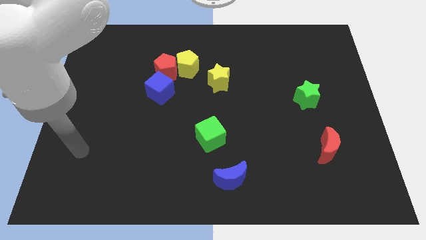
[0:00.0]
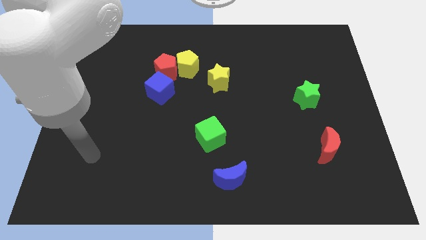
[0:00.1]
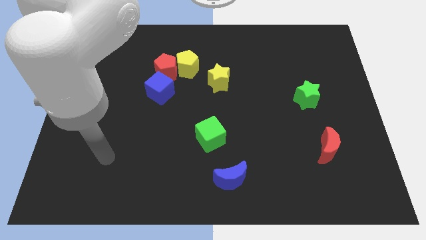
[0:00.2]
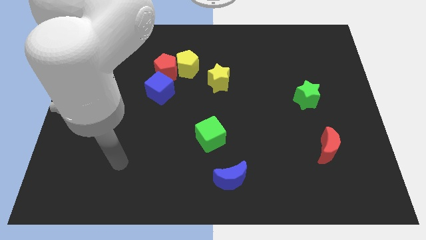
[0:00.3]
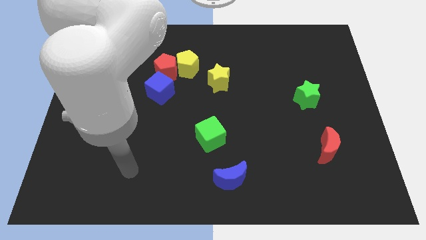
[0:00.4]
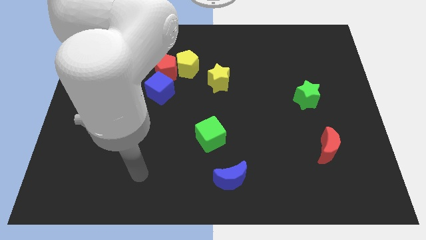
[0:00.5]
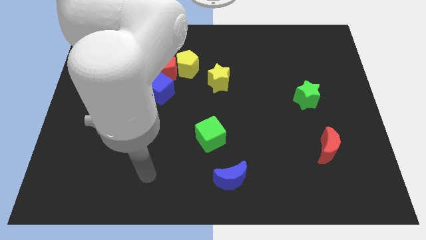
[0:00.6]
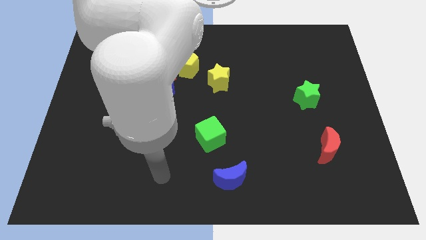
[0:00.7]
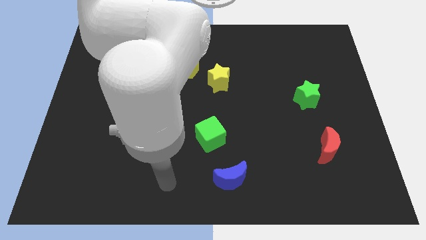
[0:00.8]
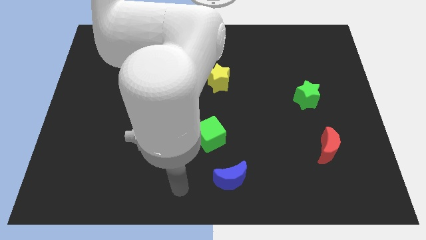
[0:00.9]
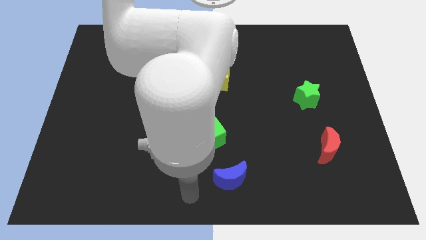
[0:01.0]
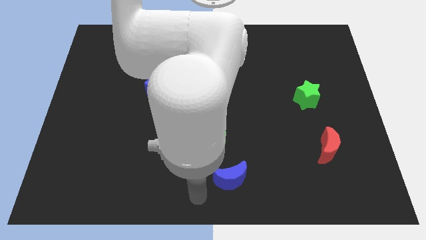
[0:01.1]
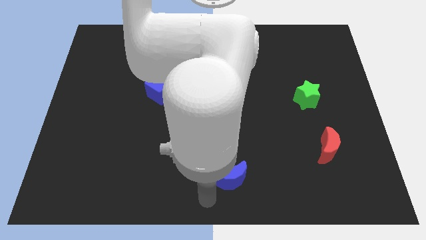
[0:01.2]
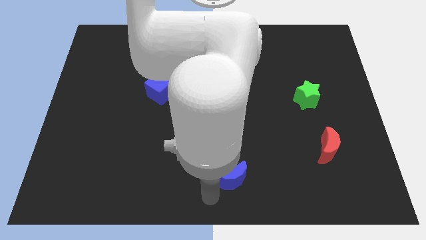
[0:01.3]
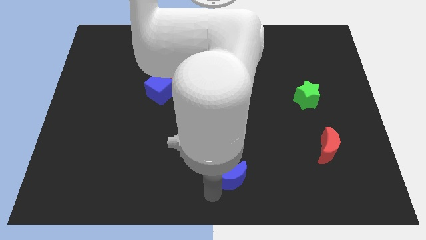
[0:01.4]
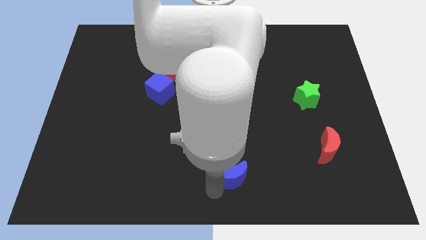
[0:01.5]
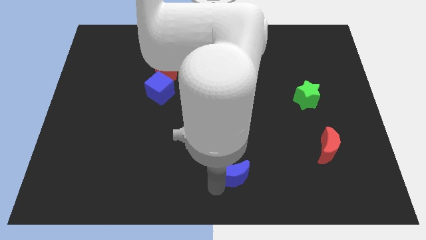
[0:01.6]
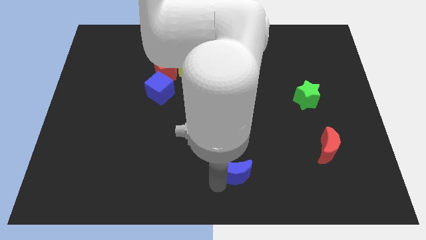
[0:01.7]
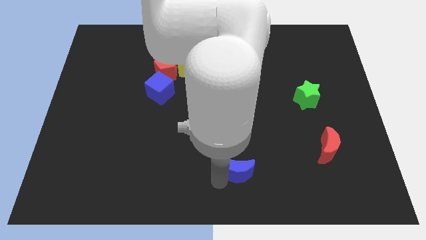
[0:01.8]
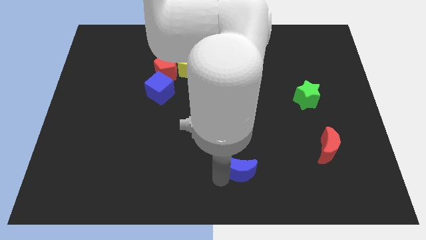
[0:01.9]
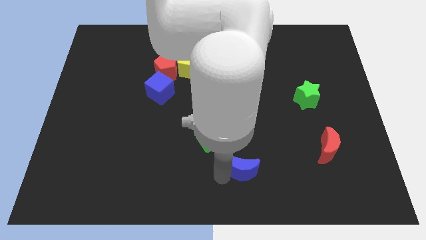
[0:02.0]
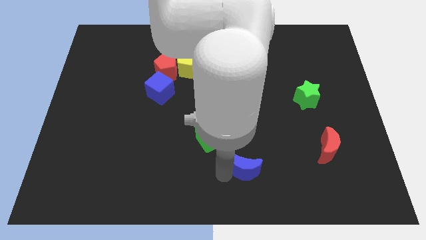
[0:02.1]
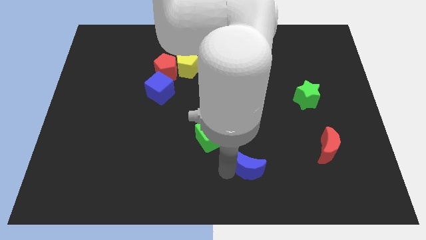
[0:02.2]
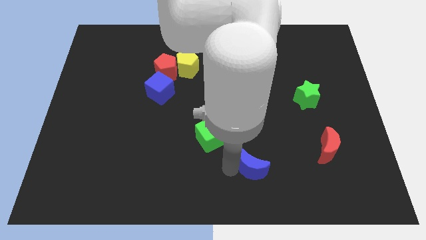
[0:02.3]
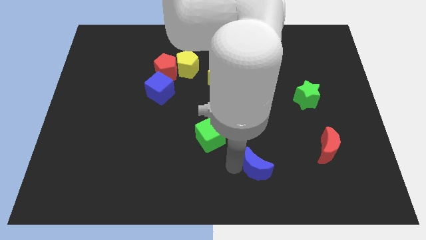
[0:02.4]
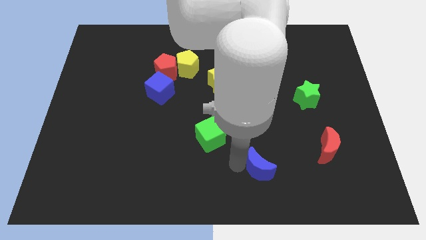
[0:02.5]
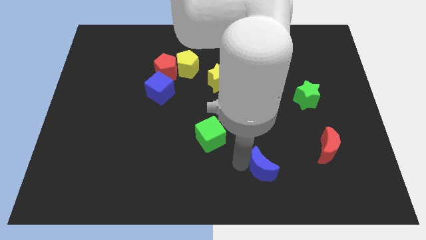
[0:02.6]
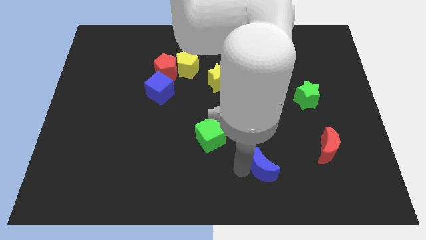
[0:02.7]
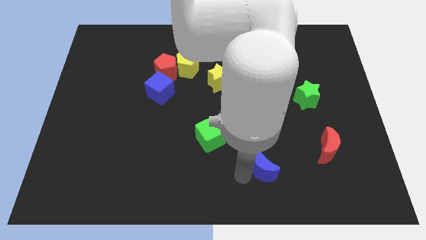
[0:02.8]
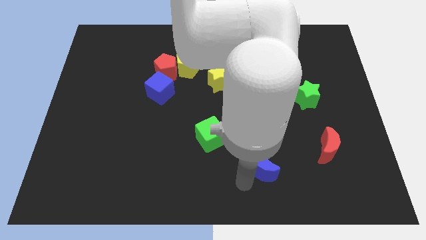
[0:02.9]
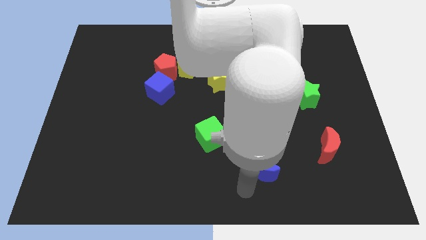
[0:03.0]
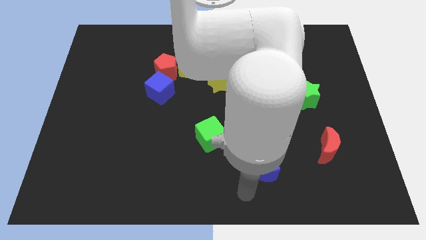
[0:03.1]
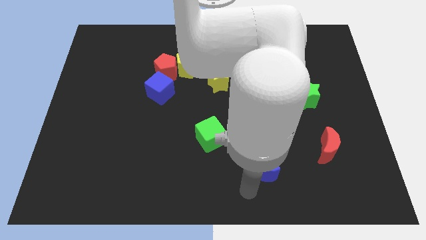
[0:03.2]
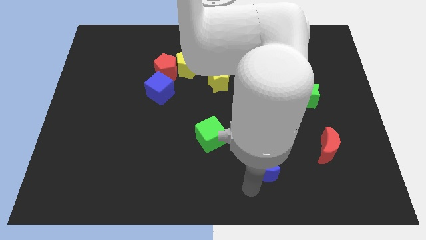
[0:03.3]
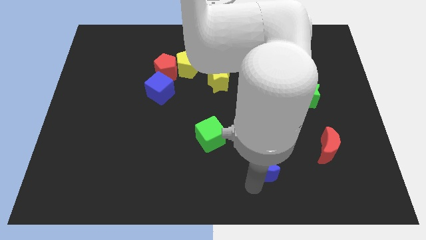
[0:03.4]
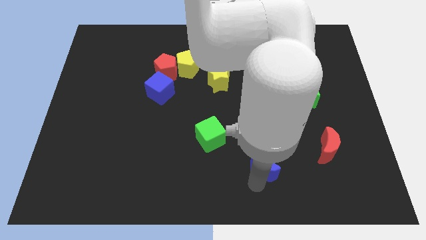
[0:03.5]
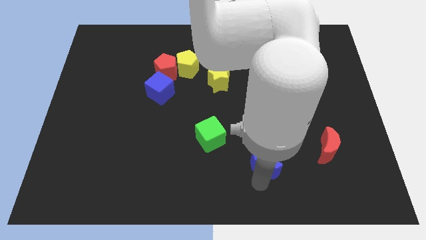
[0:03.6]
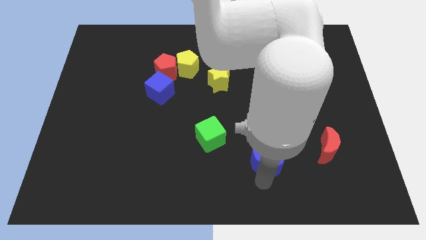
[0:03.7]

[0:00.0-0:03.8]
slightly push the blue moon up and to the right diagonally

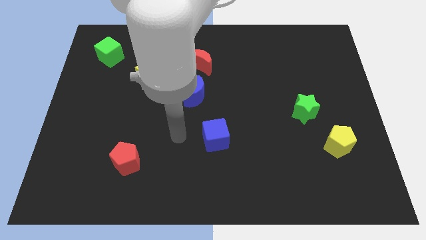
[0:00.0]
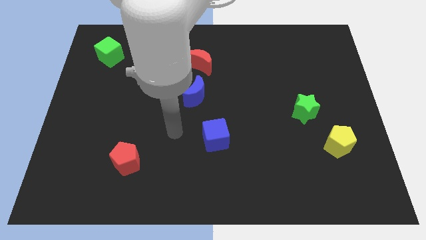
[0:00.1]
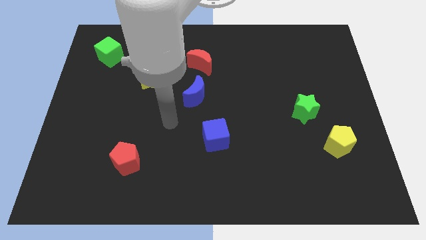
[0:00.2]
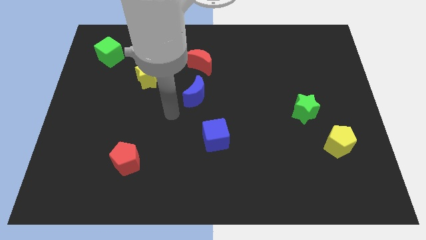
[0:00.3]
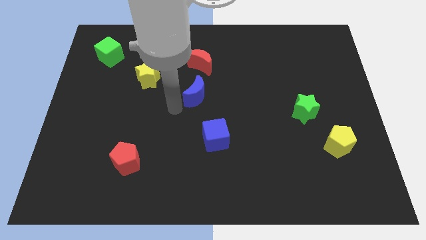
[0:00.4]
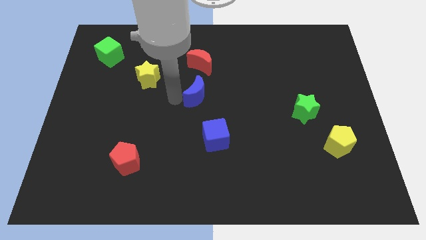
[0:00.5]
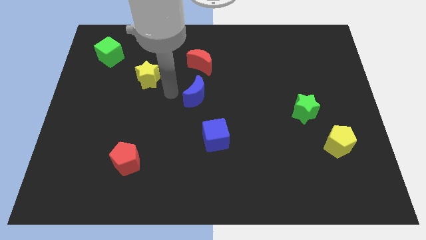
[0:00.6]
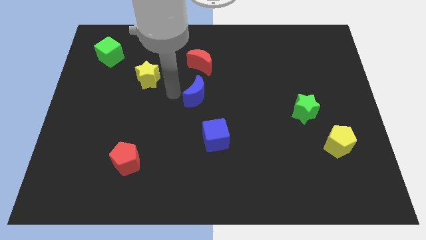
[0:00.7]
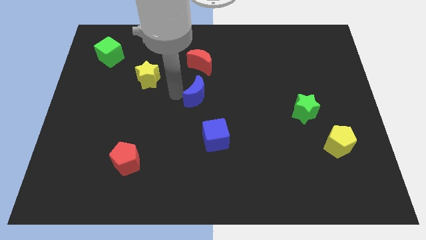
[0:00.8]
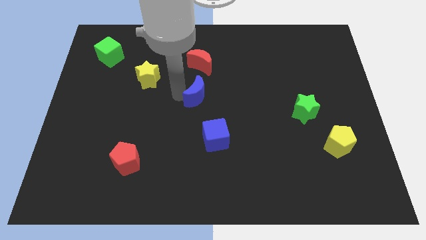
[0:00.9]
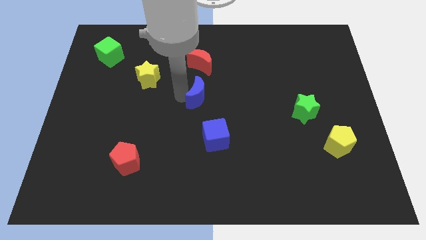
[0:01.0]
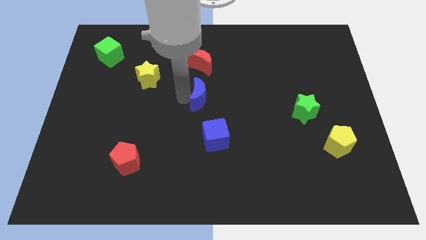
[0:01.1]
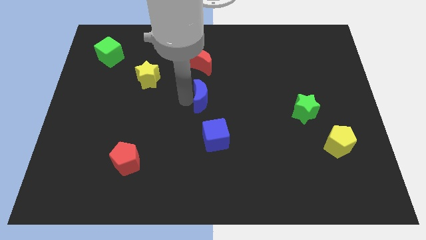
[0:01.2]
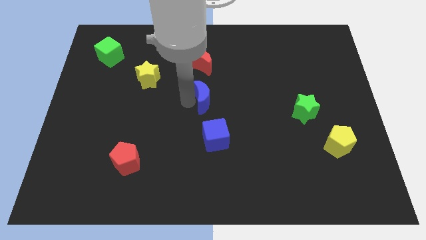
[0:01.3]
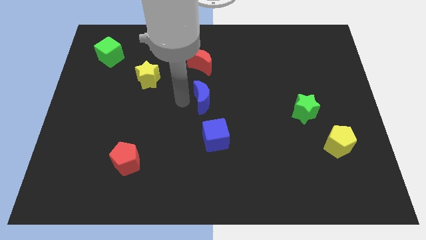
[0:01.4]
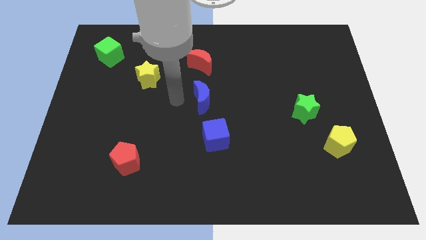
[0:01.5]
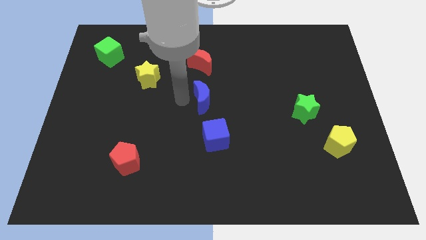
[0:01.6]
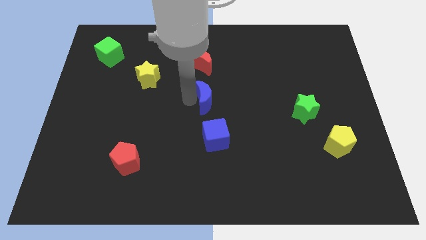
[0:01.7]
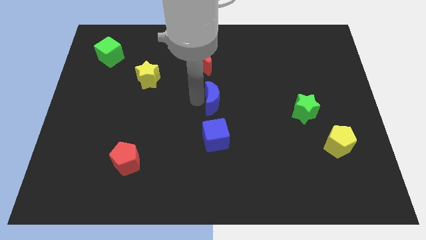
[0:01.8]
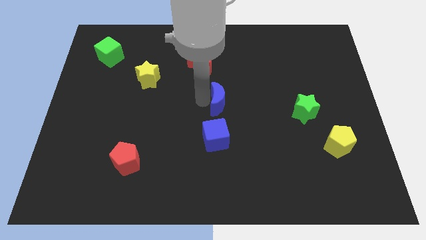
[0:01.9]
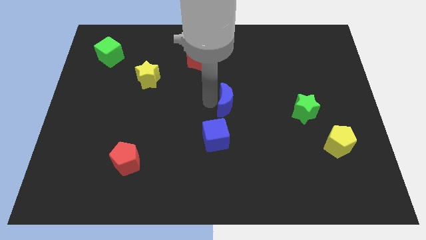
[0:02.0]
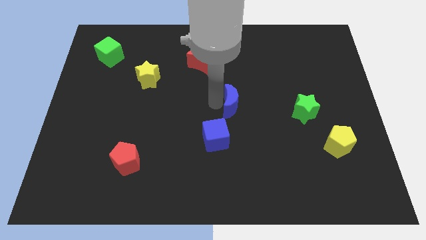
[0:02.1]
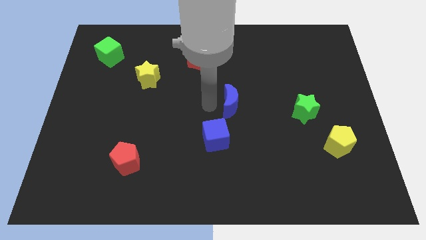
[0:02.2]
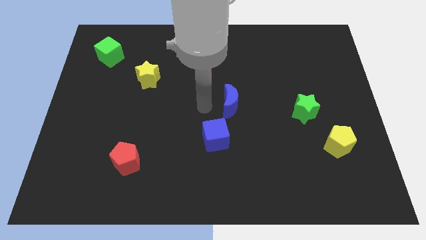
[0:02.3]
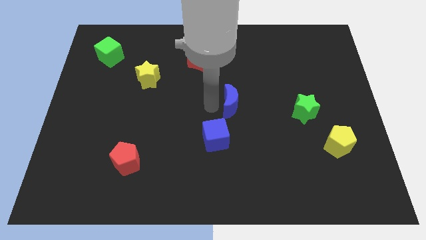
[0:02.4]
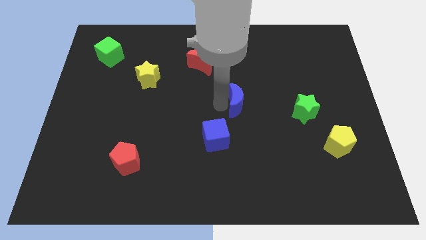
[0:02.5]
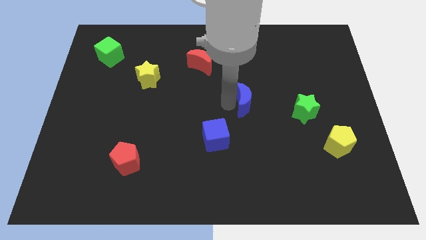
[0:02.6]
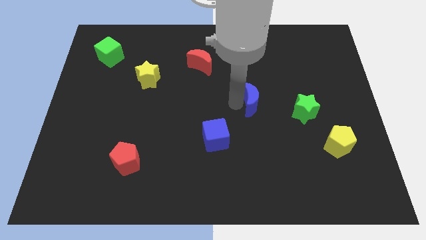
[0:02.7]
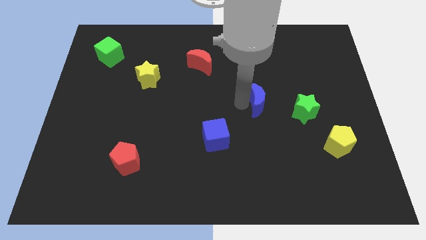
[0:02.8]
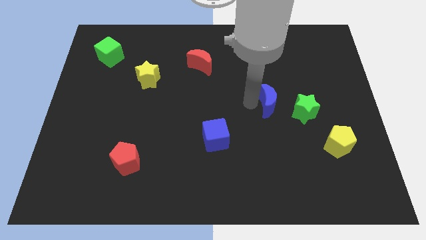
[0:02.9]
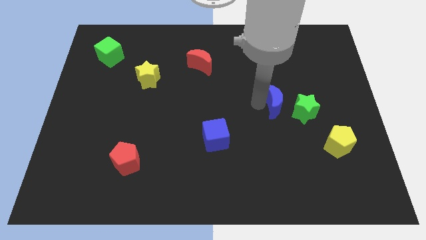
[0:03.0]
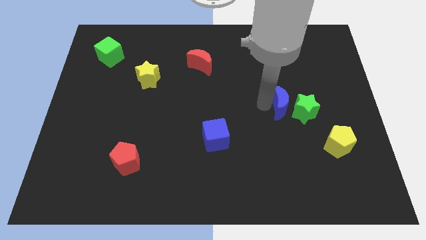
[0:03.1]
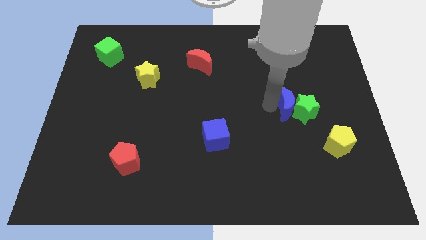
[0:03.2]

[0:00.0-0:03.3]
slide the blue moon right

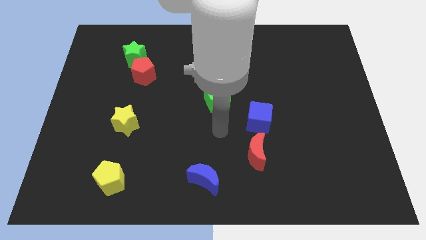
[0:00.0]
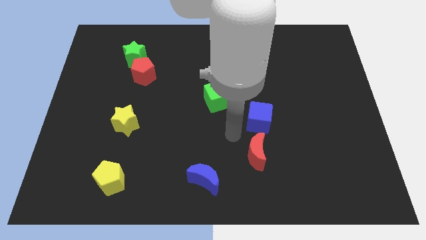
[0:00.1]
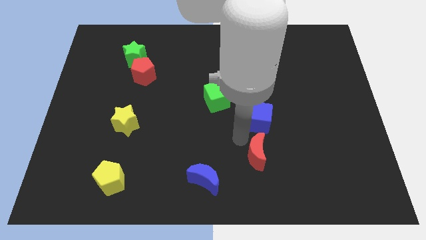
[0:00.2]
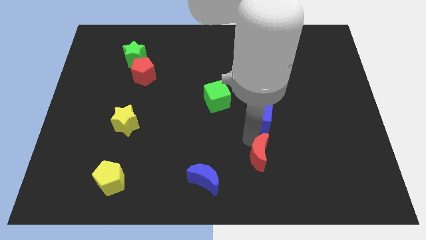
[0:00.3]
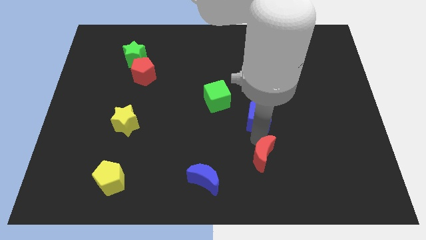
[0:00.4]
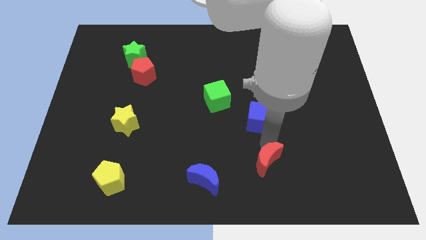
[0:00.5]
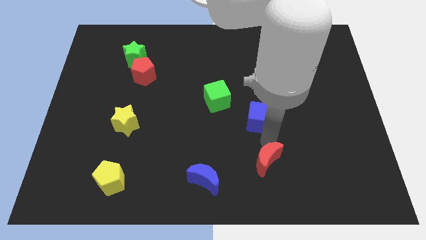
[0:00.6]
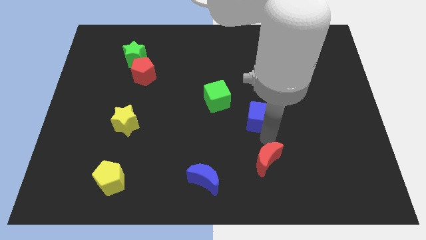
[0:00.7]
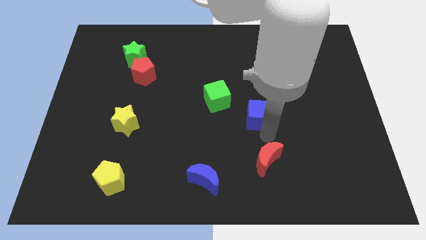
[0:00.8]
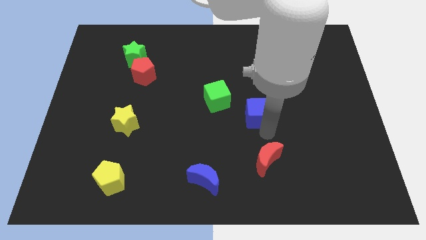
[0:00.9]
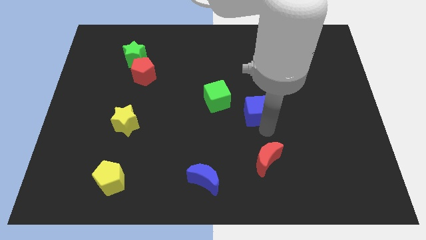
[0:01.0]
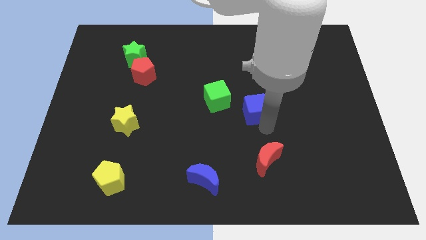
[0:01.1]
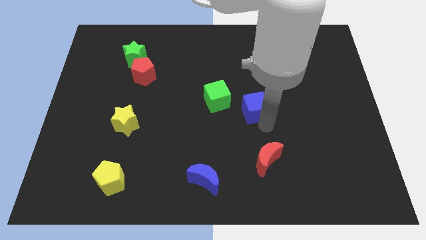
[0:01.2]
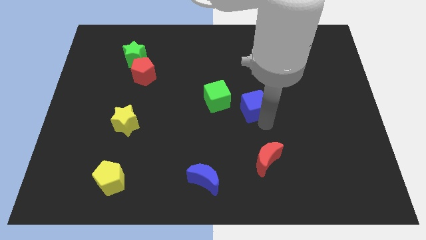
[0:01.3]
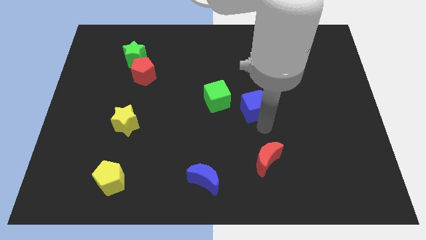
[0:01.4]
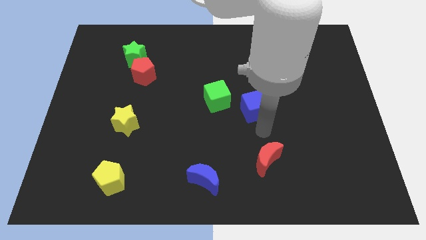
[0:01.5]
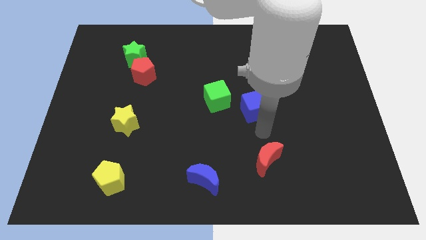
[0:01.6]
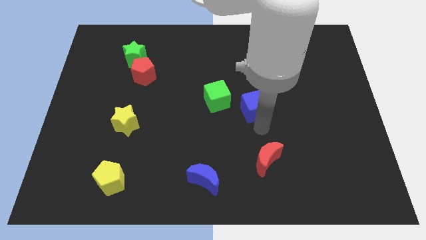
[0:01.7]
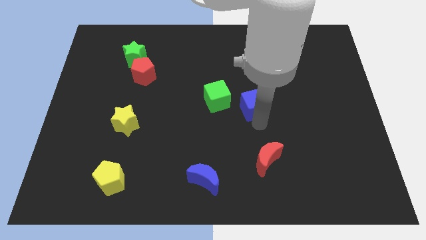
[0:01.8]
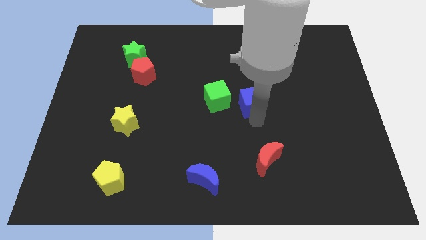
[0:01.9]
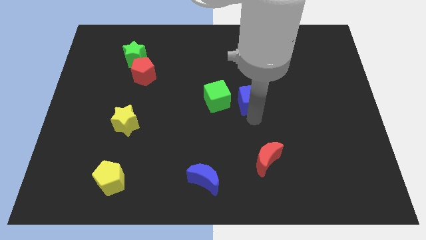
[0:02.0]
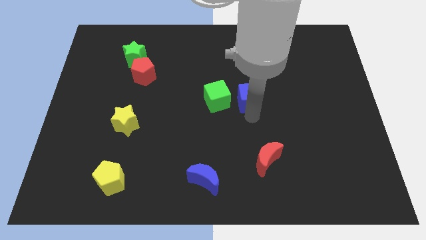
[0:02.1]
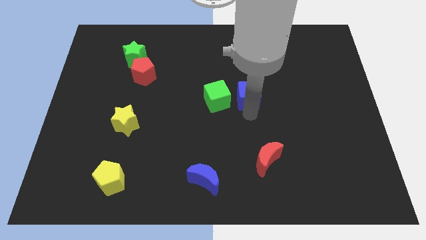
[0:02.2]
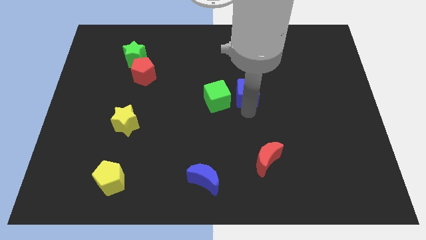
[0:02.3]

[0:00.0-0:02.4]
slightly push the blue cube upwards
